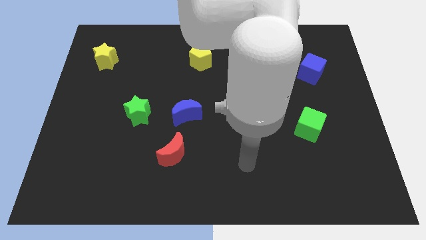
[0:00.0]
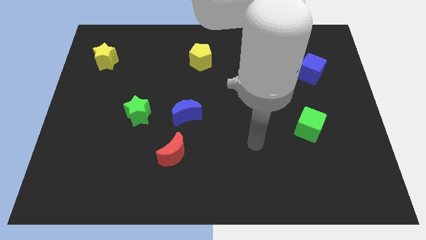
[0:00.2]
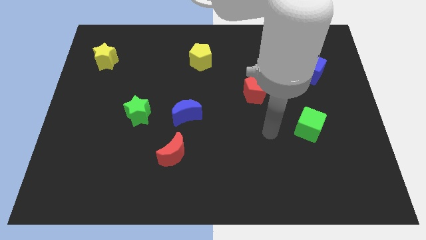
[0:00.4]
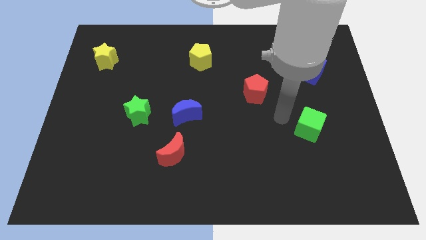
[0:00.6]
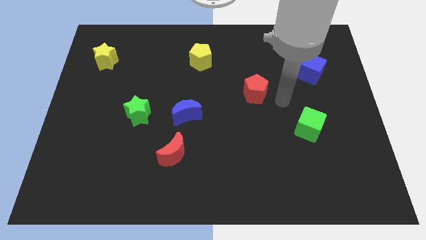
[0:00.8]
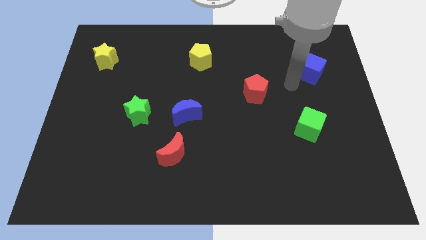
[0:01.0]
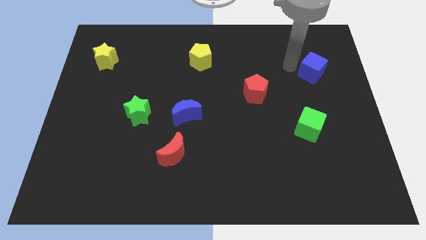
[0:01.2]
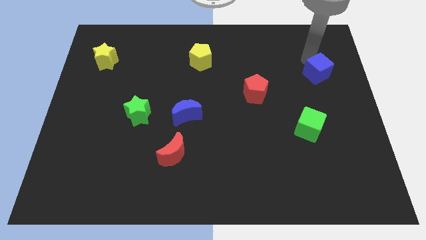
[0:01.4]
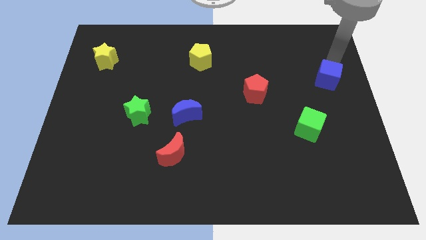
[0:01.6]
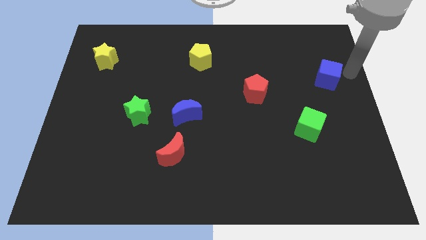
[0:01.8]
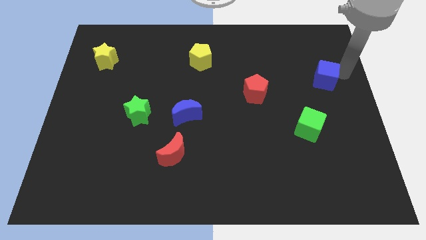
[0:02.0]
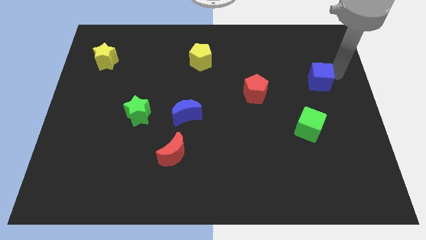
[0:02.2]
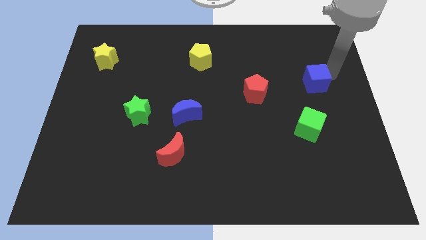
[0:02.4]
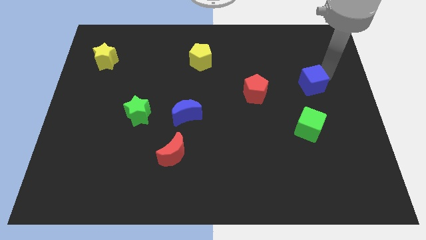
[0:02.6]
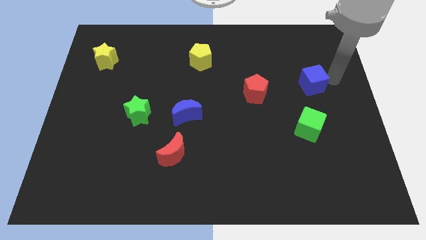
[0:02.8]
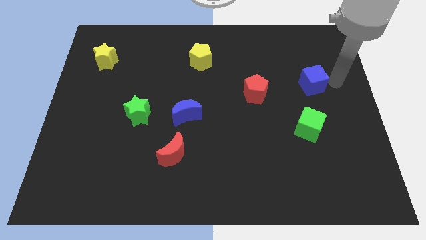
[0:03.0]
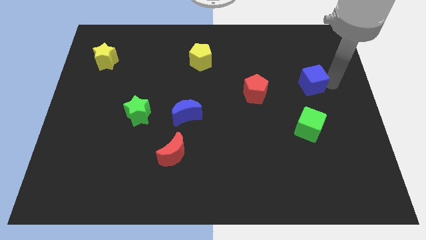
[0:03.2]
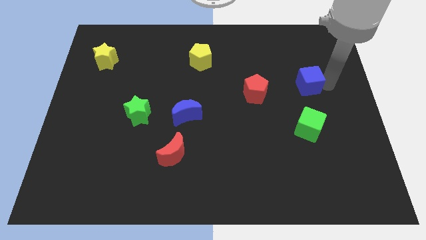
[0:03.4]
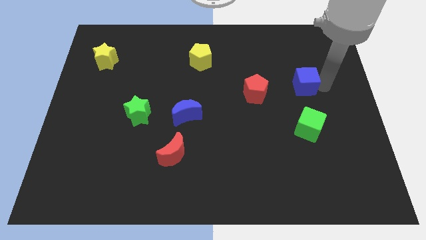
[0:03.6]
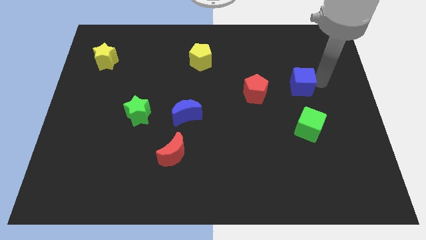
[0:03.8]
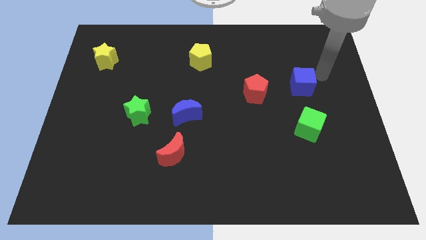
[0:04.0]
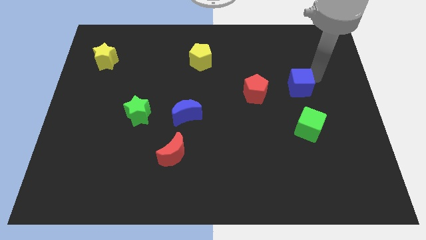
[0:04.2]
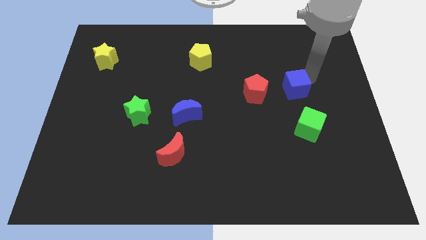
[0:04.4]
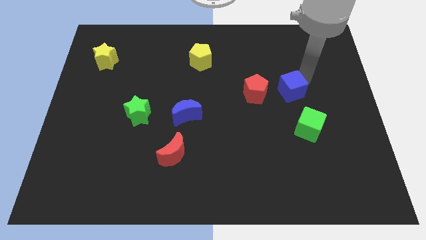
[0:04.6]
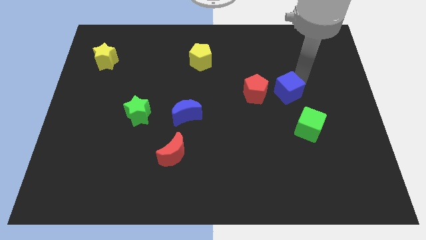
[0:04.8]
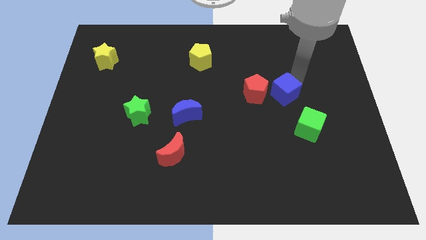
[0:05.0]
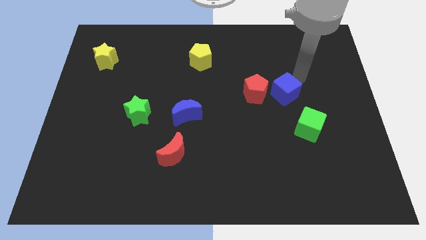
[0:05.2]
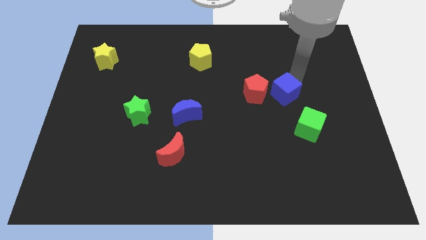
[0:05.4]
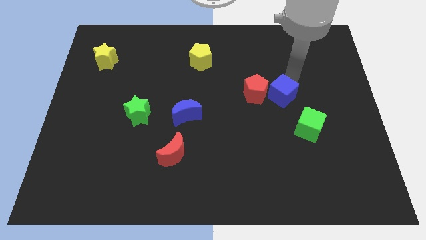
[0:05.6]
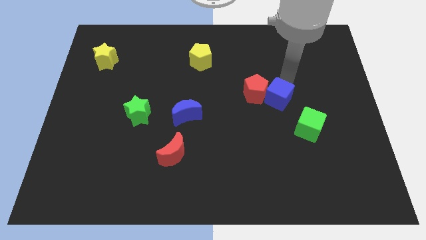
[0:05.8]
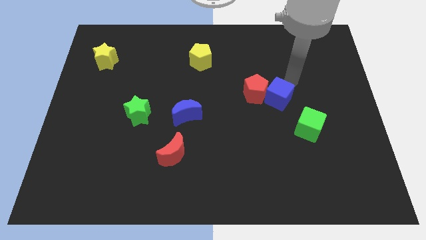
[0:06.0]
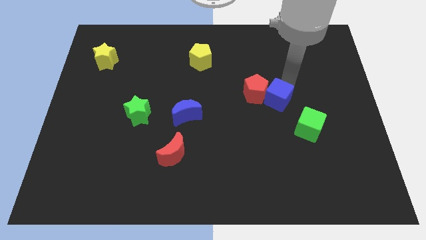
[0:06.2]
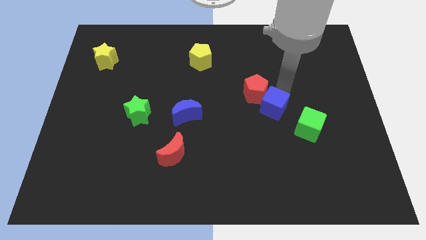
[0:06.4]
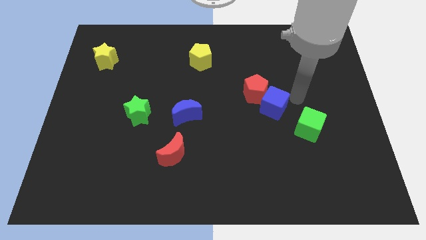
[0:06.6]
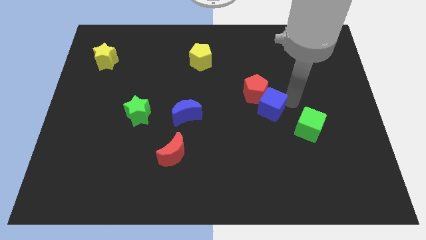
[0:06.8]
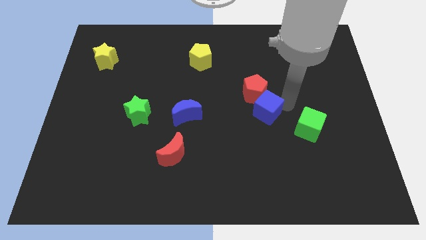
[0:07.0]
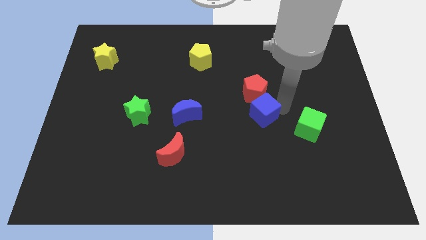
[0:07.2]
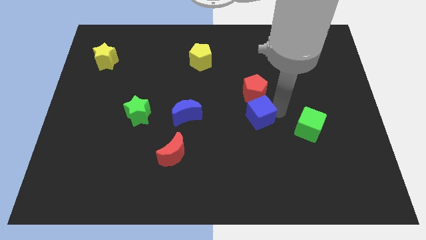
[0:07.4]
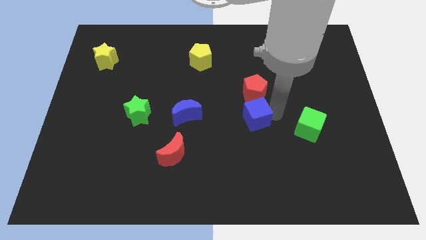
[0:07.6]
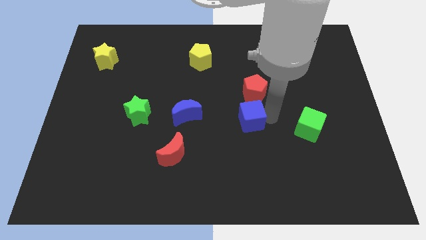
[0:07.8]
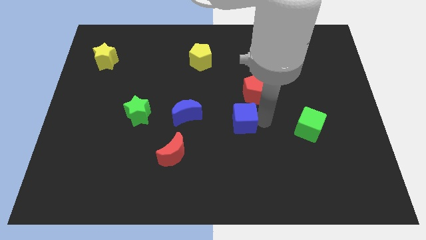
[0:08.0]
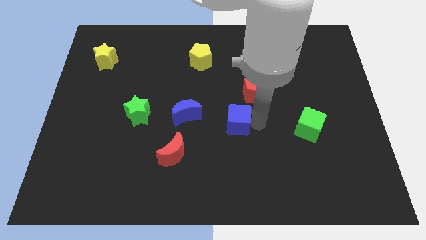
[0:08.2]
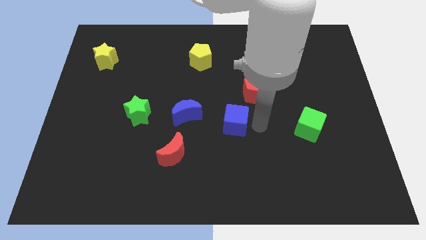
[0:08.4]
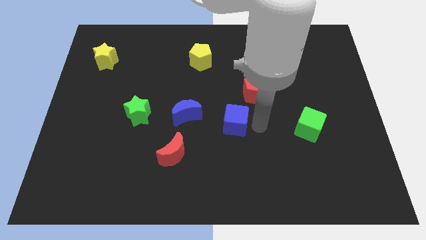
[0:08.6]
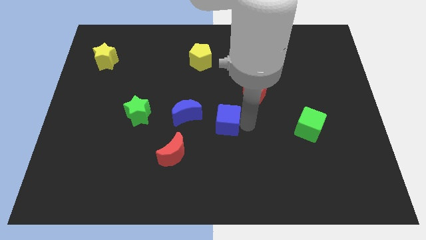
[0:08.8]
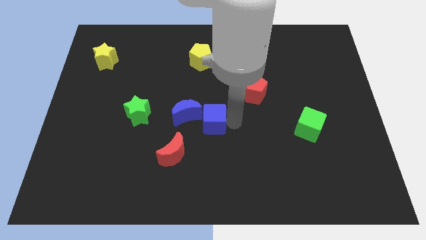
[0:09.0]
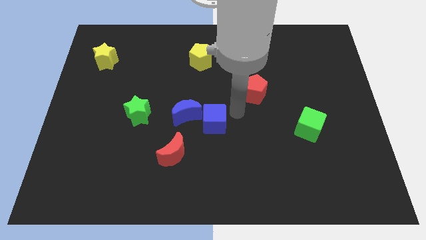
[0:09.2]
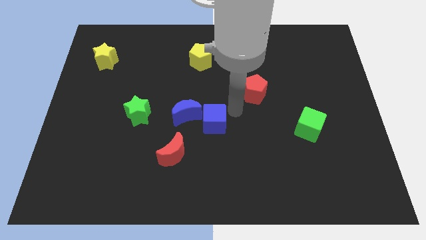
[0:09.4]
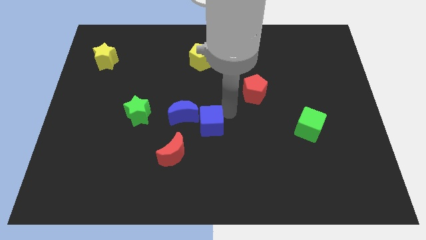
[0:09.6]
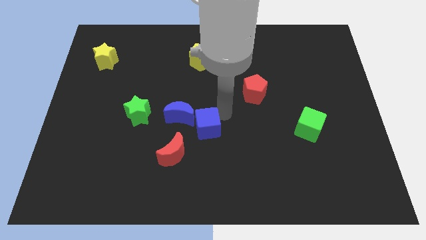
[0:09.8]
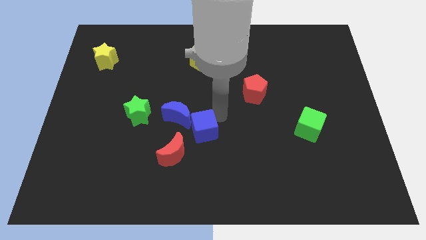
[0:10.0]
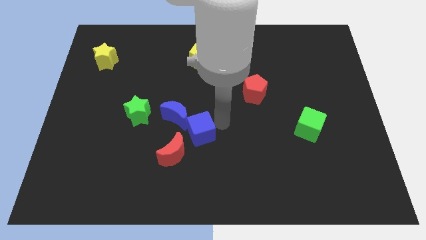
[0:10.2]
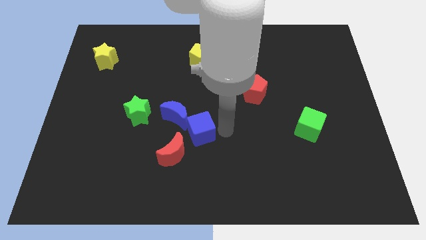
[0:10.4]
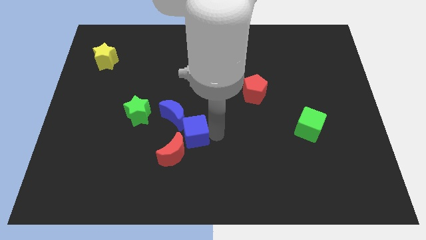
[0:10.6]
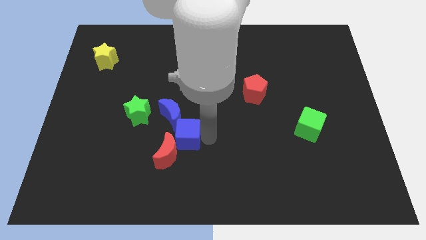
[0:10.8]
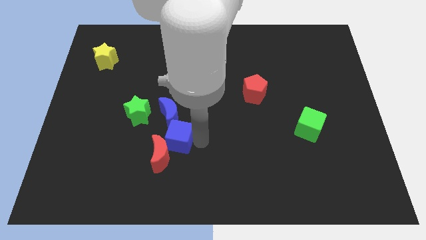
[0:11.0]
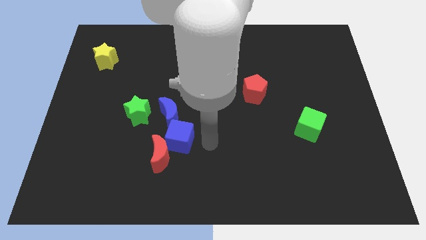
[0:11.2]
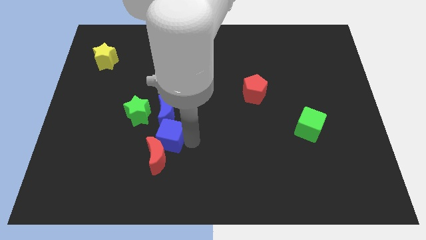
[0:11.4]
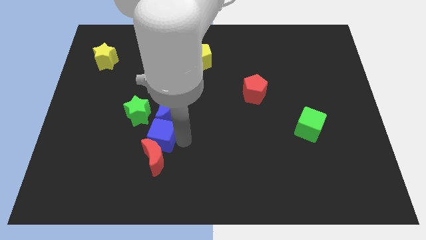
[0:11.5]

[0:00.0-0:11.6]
put the blue cube to the bottom left of the blue moon

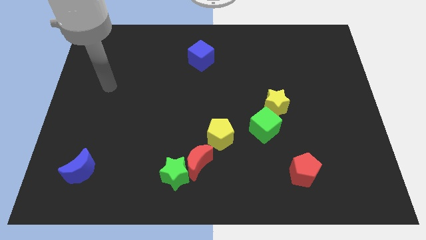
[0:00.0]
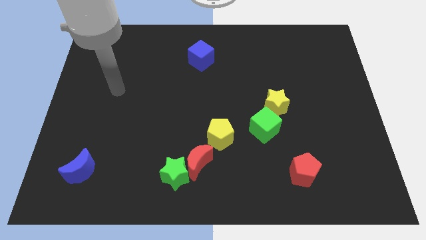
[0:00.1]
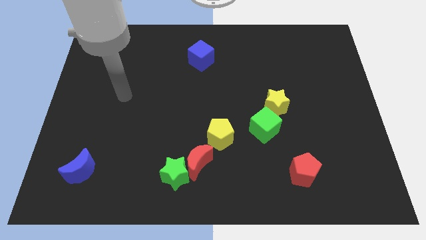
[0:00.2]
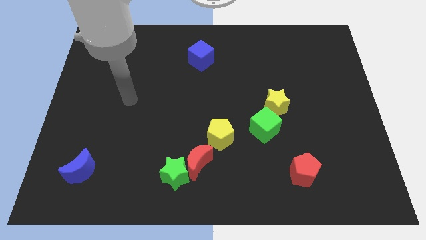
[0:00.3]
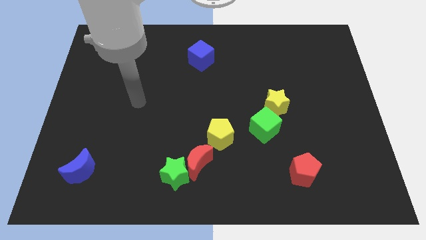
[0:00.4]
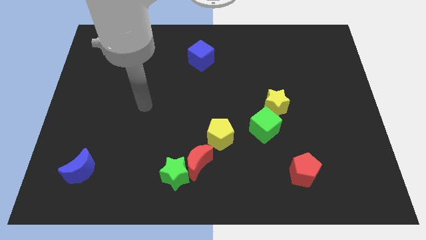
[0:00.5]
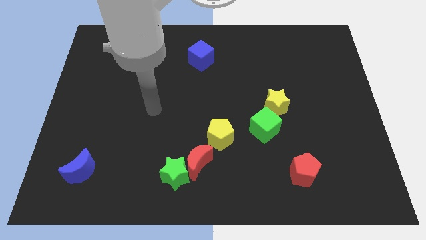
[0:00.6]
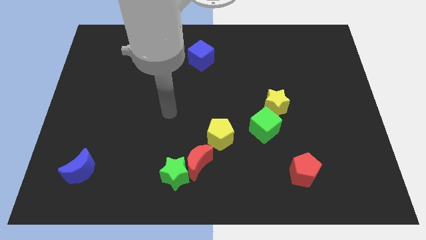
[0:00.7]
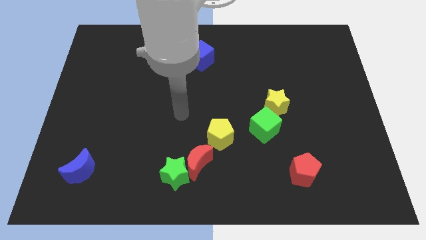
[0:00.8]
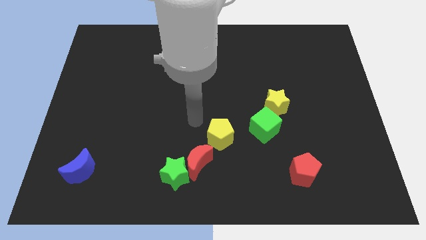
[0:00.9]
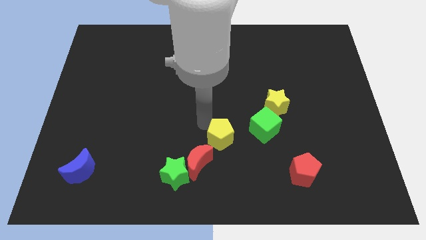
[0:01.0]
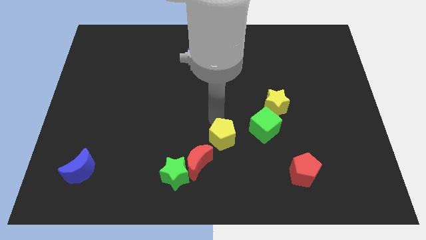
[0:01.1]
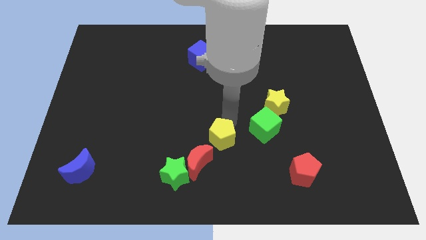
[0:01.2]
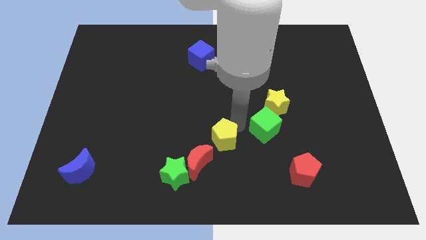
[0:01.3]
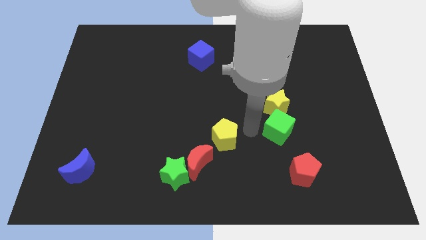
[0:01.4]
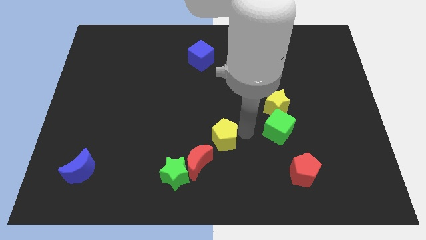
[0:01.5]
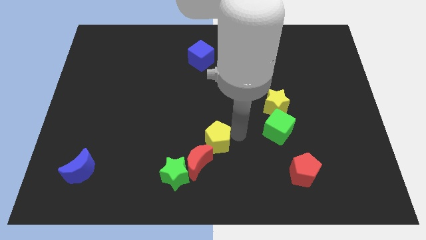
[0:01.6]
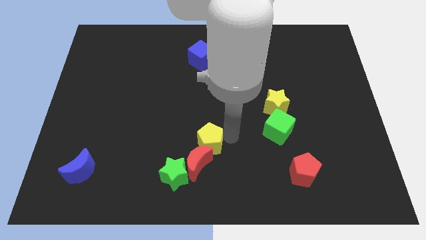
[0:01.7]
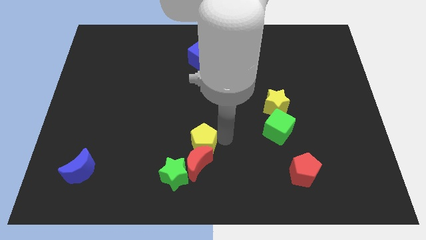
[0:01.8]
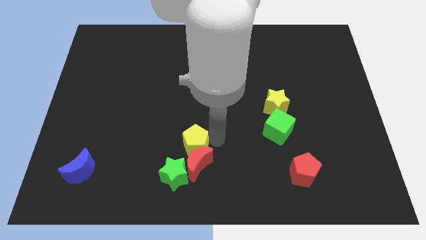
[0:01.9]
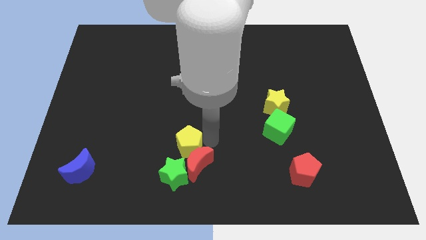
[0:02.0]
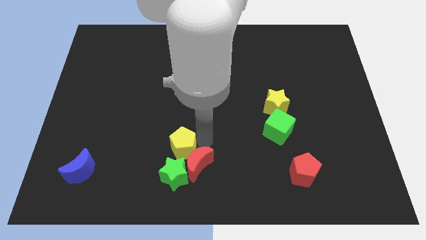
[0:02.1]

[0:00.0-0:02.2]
push the yellow pentagon left of the red moon
